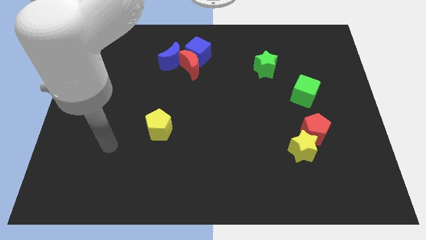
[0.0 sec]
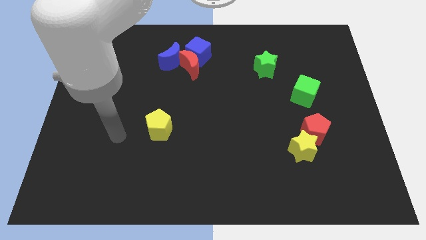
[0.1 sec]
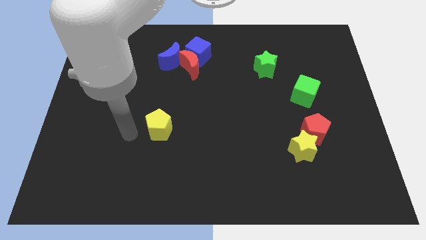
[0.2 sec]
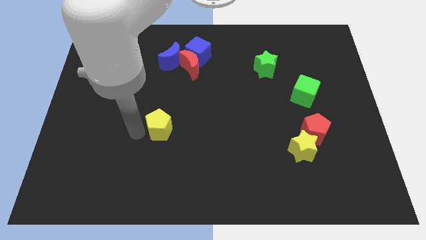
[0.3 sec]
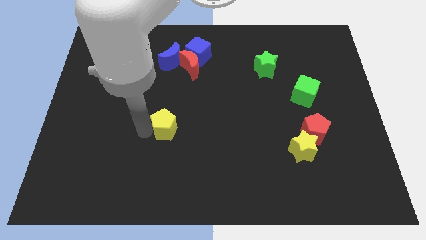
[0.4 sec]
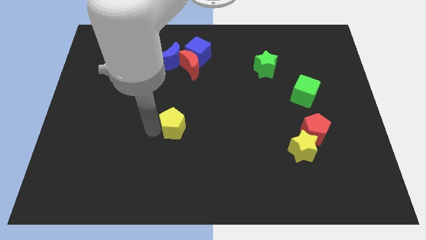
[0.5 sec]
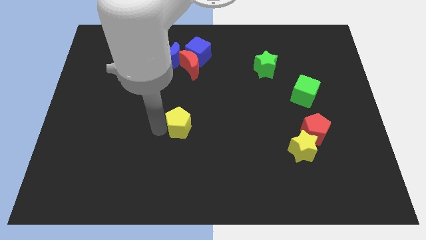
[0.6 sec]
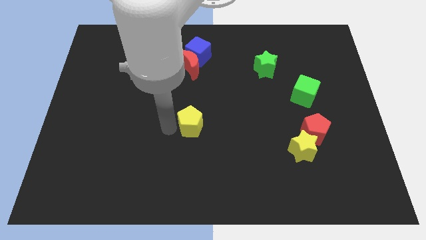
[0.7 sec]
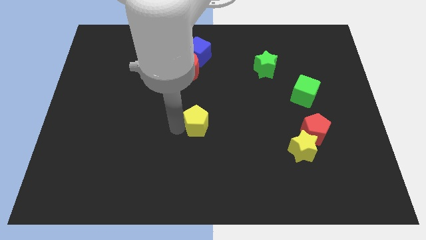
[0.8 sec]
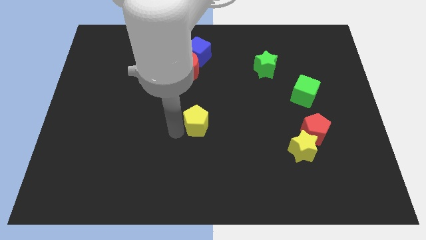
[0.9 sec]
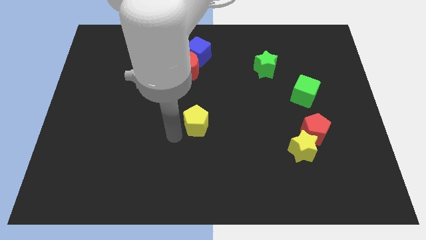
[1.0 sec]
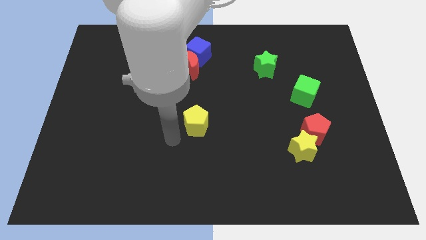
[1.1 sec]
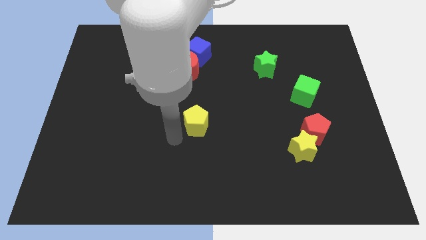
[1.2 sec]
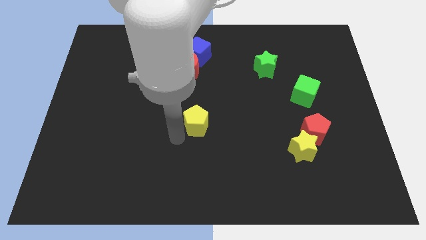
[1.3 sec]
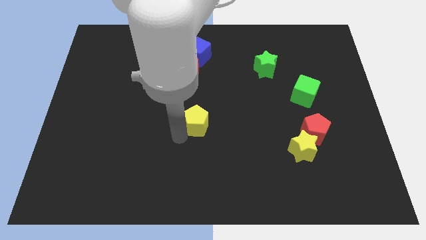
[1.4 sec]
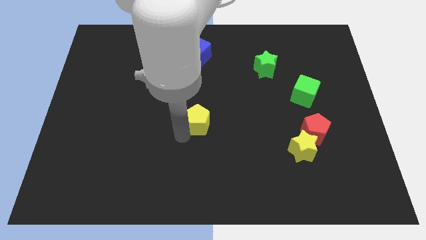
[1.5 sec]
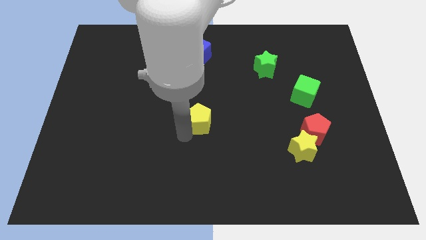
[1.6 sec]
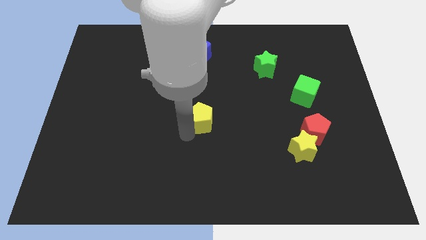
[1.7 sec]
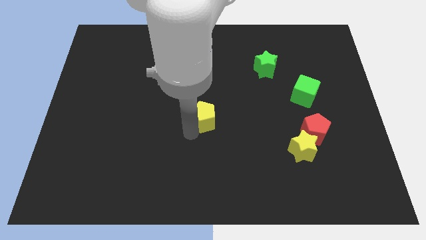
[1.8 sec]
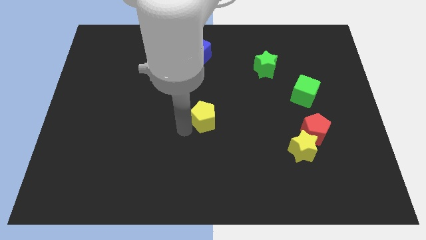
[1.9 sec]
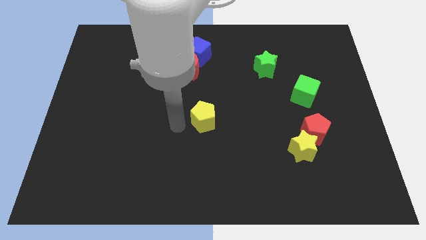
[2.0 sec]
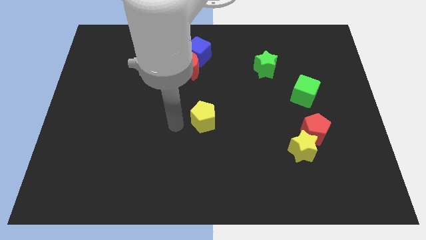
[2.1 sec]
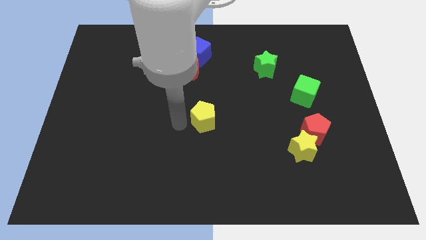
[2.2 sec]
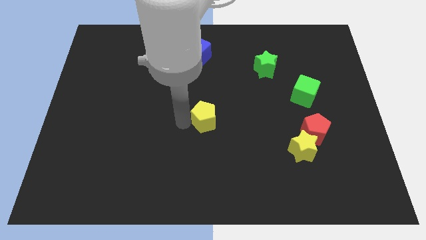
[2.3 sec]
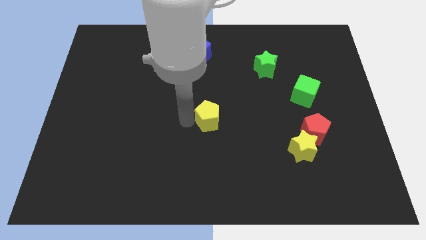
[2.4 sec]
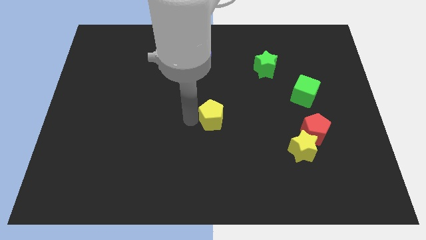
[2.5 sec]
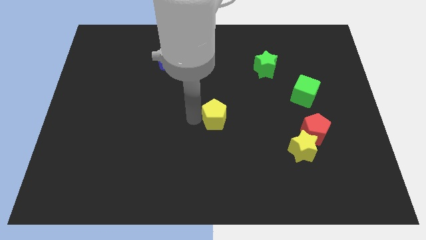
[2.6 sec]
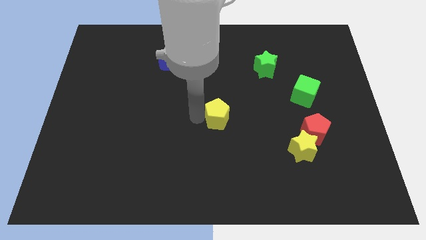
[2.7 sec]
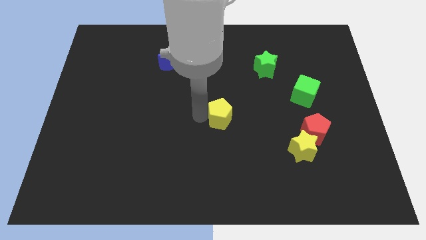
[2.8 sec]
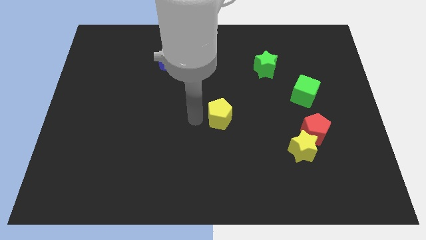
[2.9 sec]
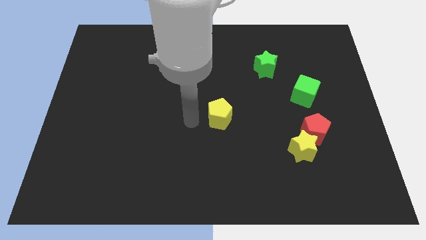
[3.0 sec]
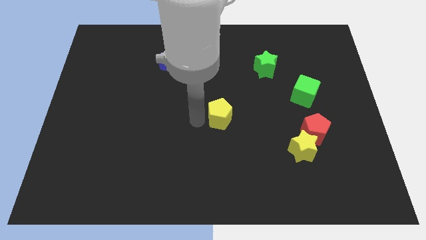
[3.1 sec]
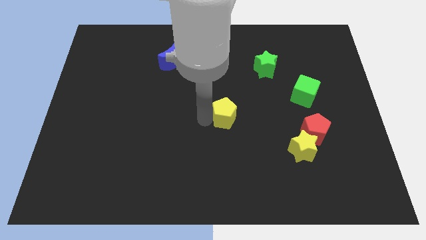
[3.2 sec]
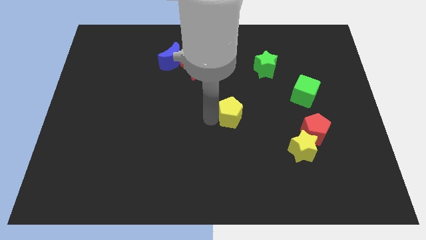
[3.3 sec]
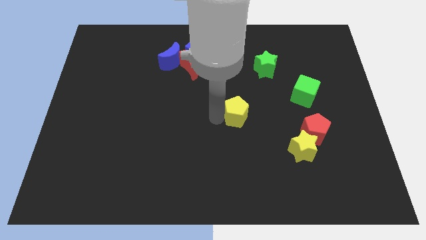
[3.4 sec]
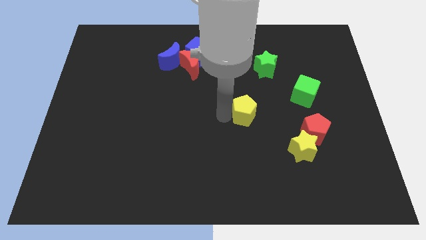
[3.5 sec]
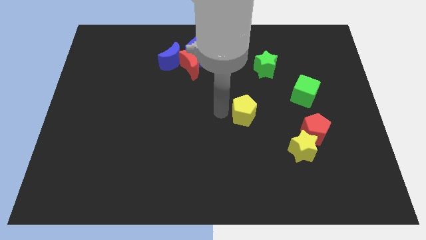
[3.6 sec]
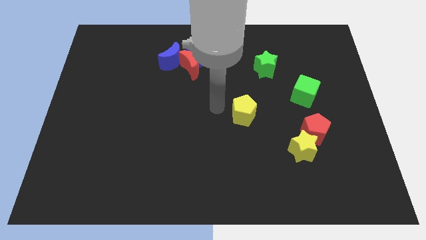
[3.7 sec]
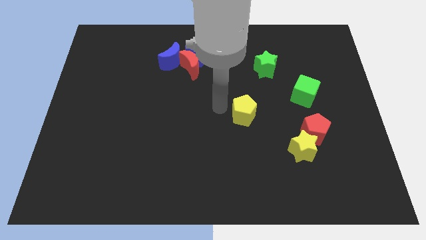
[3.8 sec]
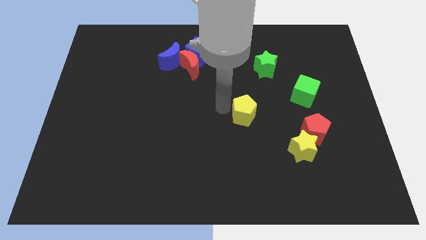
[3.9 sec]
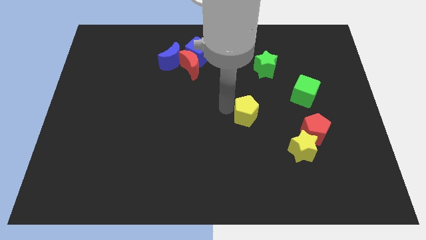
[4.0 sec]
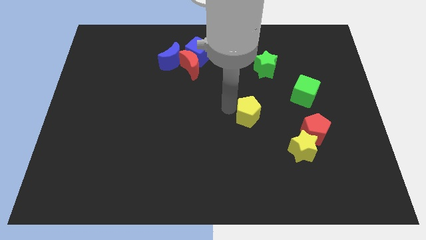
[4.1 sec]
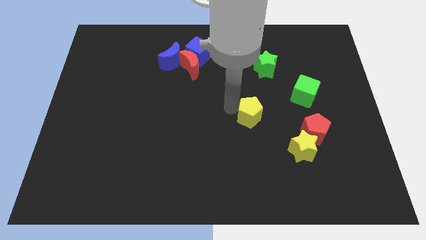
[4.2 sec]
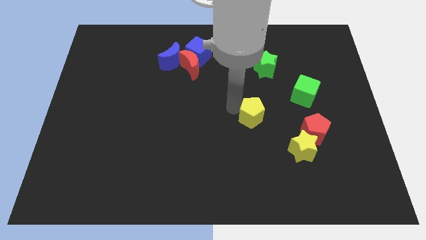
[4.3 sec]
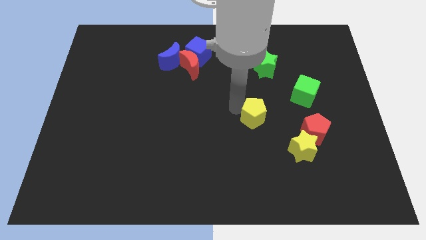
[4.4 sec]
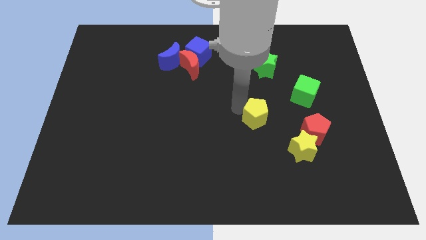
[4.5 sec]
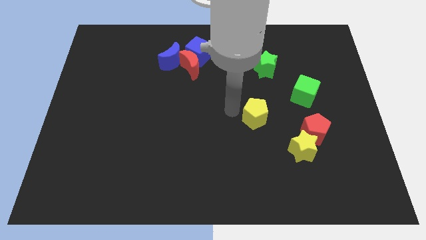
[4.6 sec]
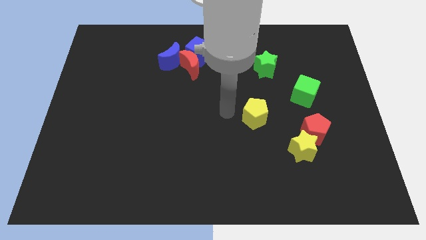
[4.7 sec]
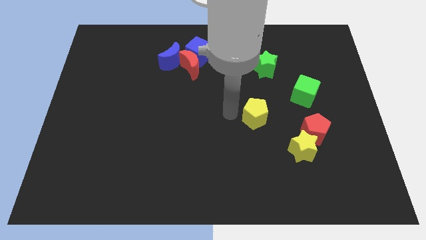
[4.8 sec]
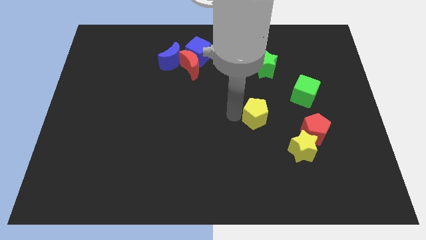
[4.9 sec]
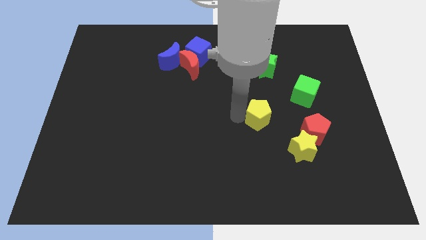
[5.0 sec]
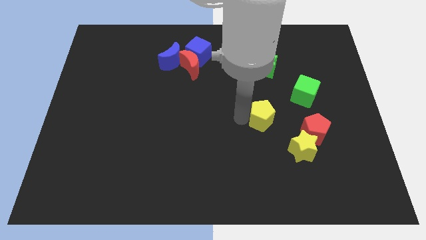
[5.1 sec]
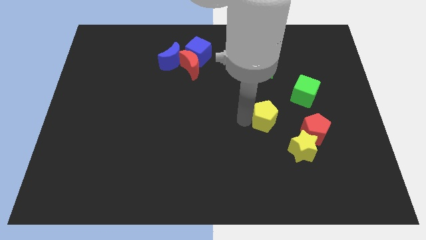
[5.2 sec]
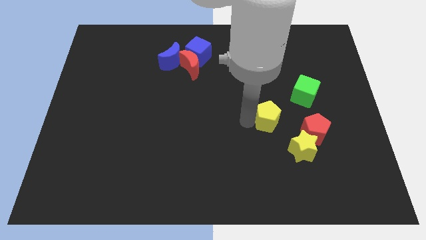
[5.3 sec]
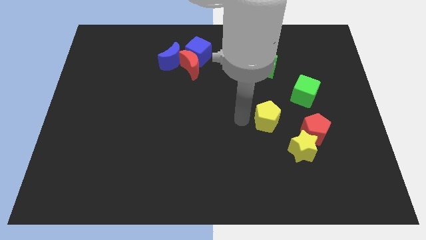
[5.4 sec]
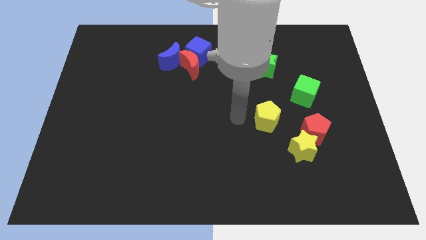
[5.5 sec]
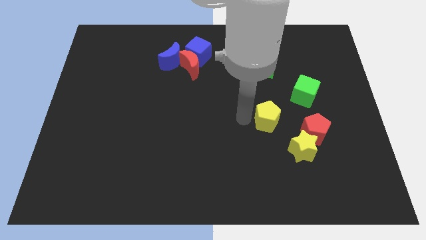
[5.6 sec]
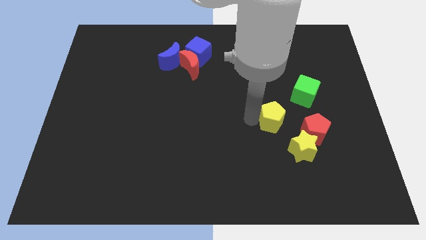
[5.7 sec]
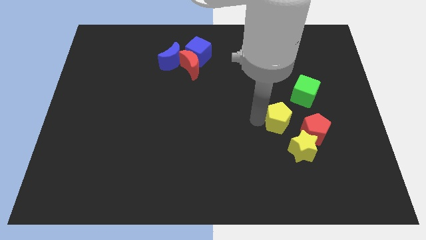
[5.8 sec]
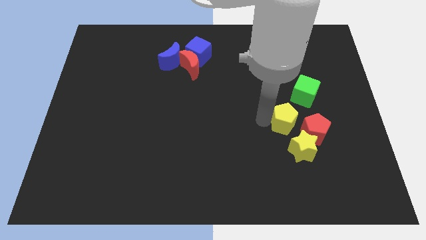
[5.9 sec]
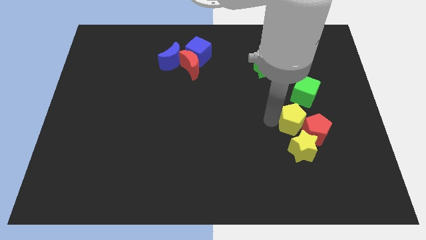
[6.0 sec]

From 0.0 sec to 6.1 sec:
move the yellow pentagon to the red pentagon

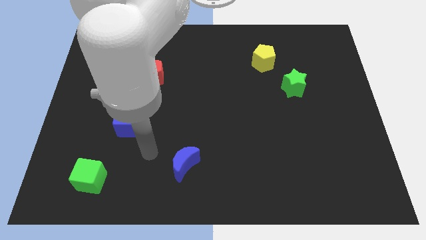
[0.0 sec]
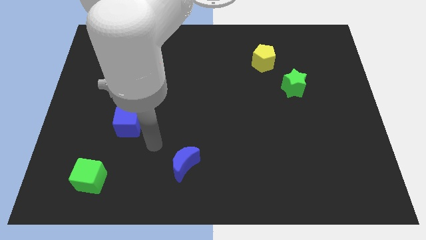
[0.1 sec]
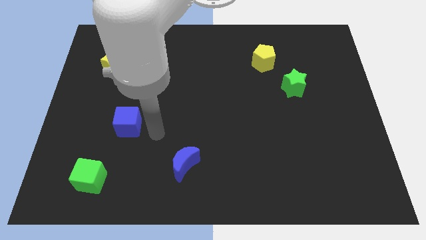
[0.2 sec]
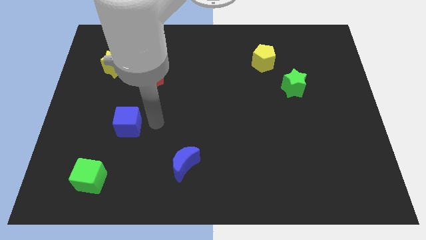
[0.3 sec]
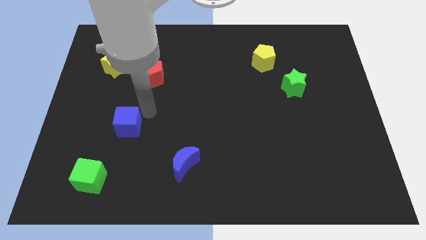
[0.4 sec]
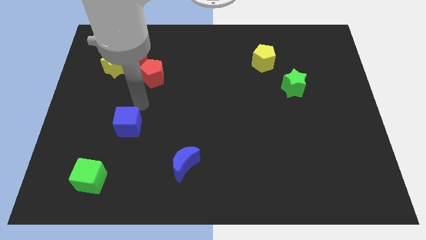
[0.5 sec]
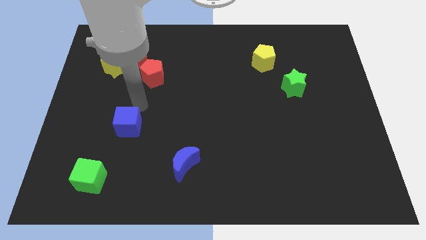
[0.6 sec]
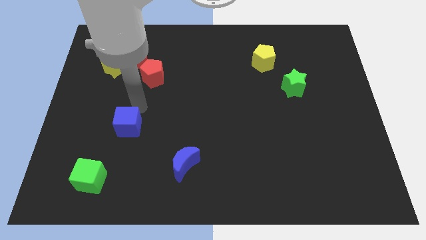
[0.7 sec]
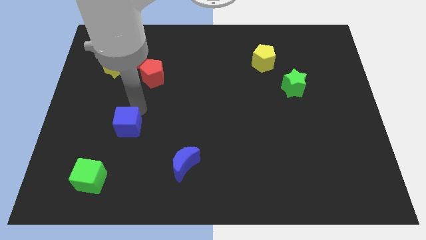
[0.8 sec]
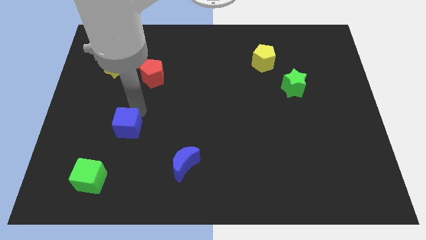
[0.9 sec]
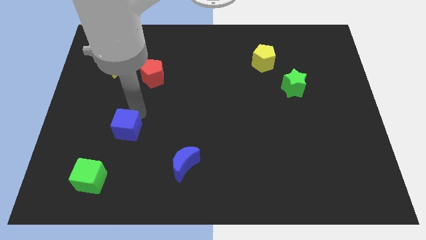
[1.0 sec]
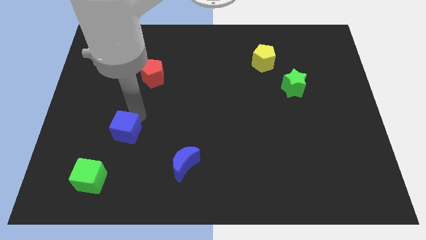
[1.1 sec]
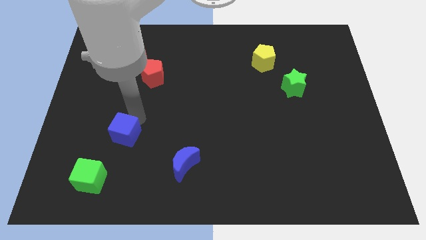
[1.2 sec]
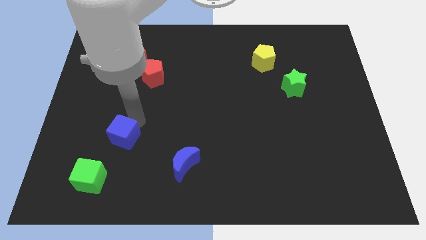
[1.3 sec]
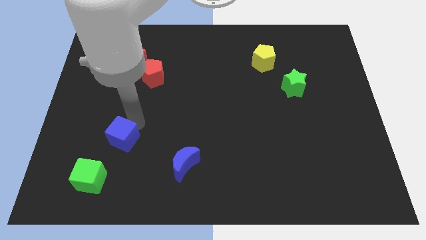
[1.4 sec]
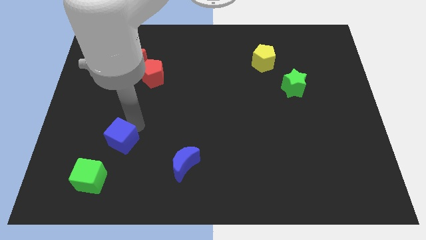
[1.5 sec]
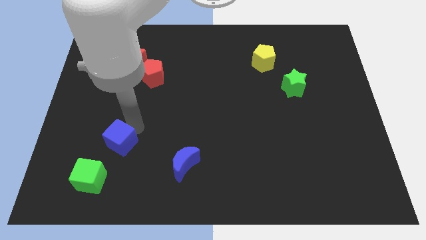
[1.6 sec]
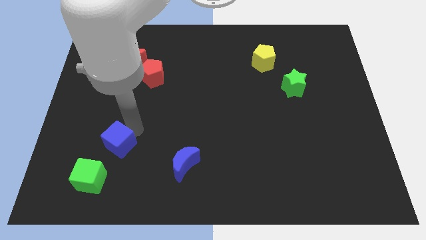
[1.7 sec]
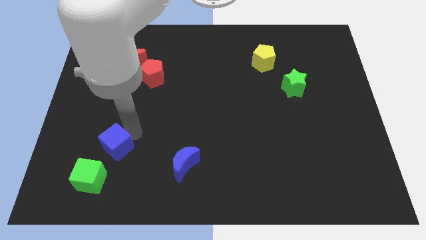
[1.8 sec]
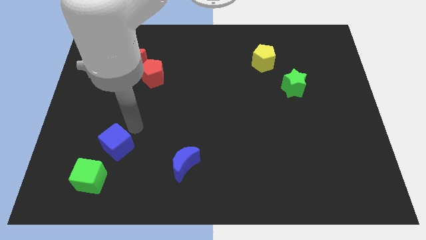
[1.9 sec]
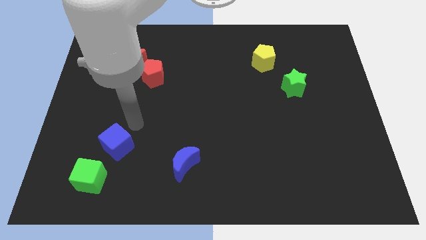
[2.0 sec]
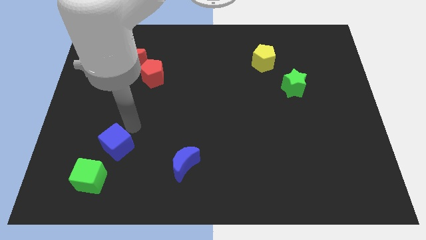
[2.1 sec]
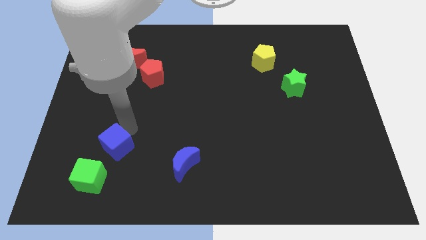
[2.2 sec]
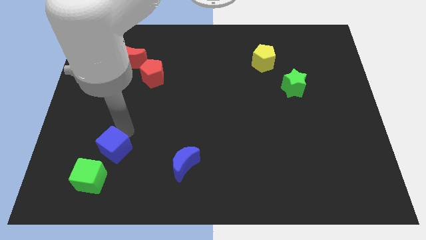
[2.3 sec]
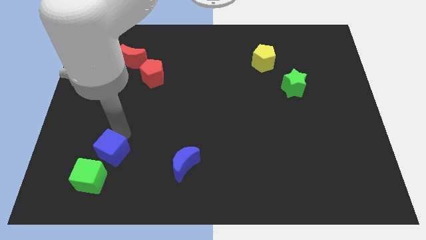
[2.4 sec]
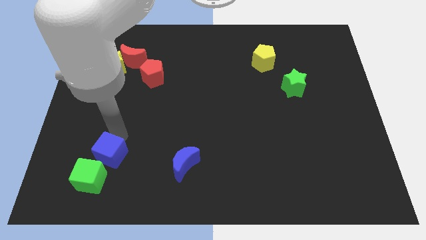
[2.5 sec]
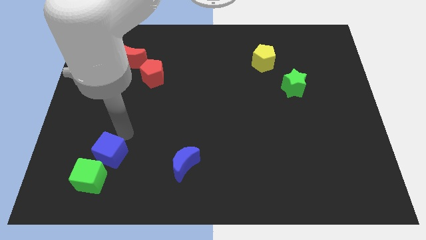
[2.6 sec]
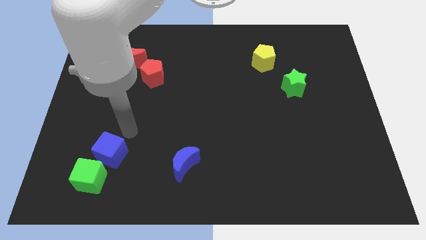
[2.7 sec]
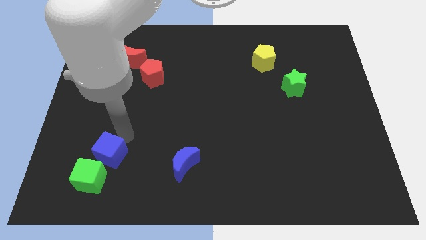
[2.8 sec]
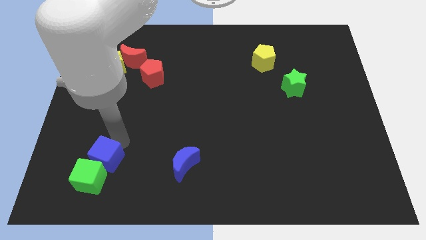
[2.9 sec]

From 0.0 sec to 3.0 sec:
put the blue cube towards the green cube
